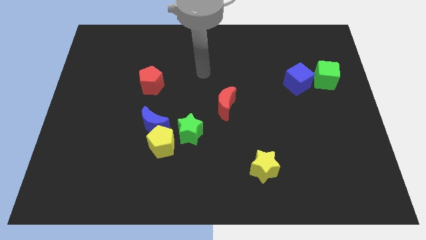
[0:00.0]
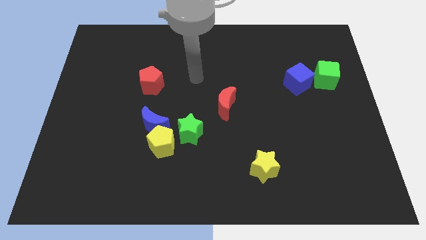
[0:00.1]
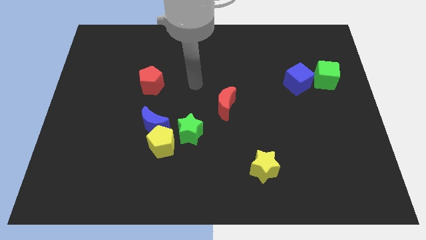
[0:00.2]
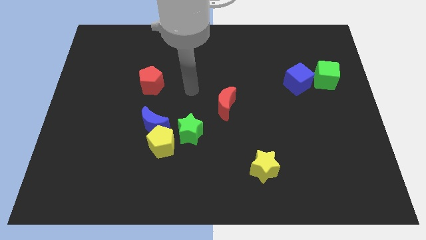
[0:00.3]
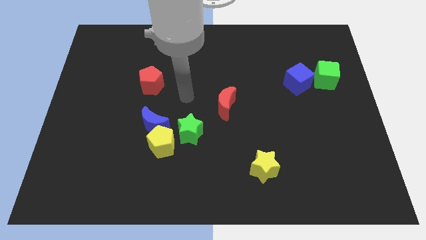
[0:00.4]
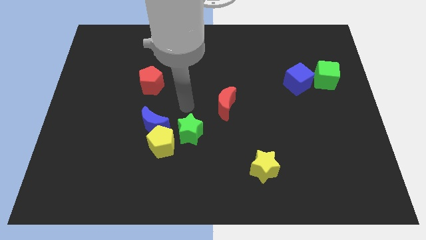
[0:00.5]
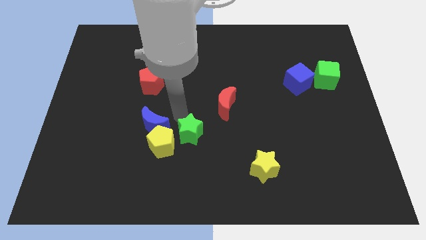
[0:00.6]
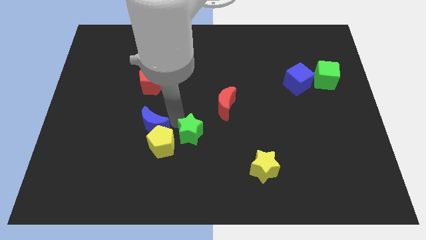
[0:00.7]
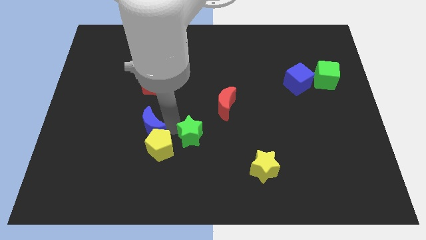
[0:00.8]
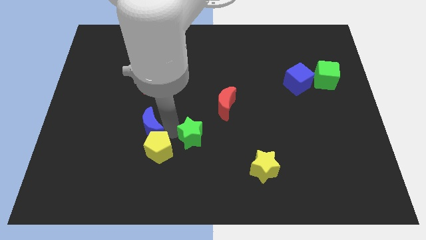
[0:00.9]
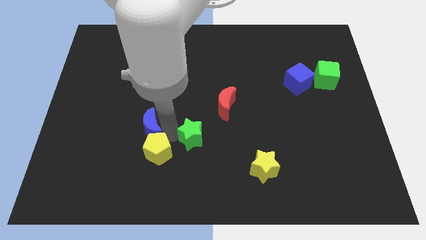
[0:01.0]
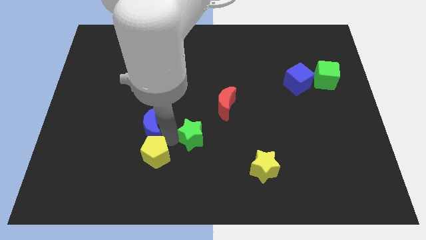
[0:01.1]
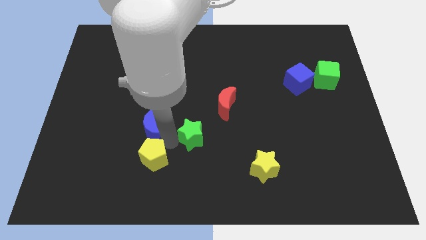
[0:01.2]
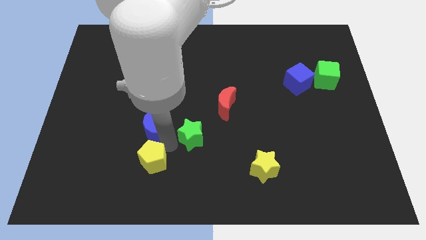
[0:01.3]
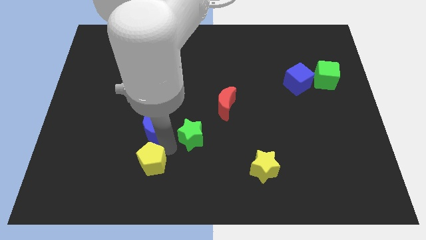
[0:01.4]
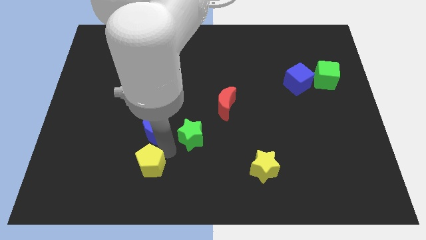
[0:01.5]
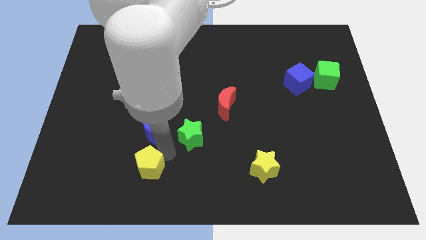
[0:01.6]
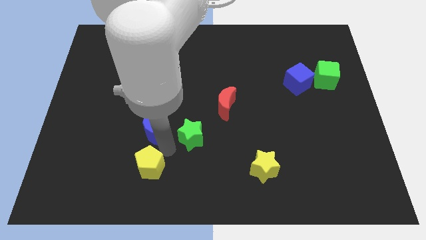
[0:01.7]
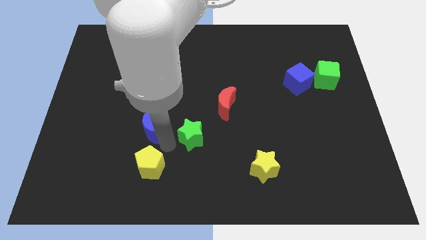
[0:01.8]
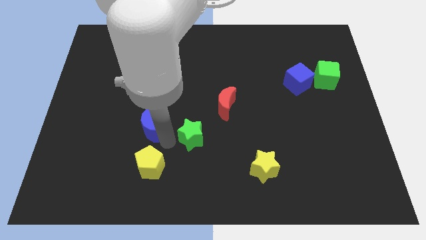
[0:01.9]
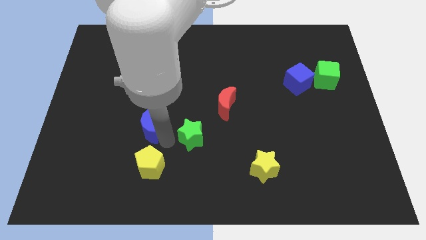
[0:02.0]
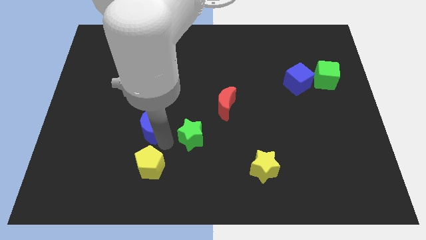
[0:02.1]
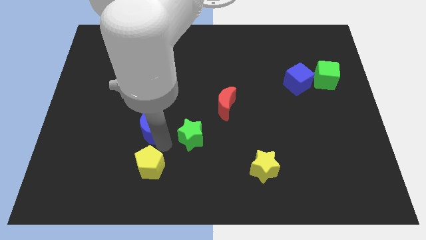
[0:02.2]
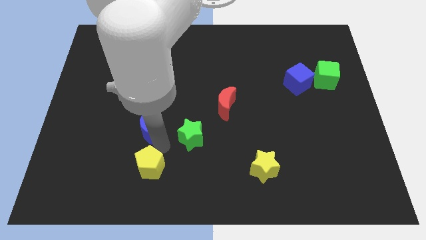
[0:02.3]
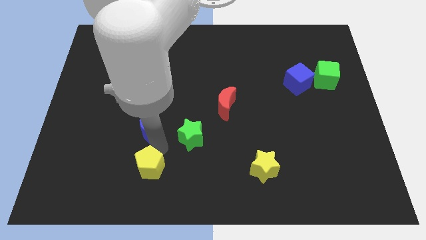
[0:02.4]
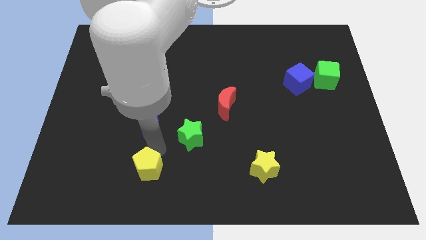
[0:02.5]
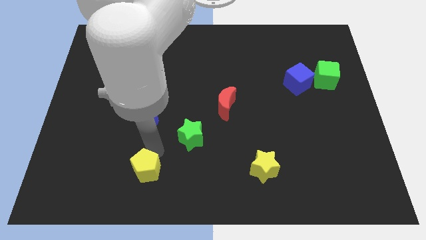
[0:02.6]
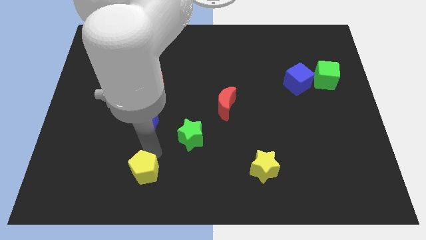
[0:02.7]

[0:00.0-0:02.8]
move the yellow pentagon away from the blue moon and green star

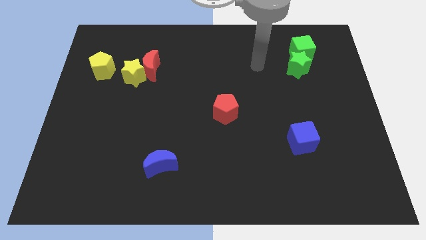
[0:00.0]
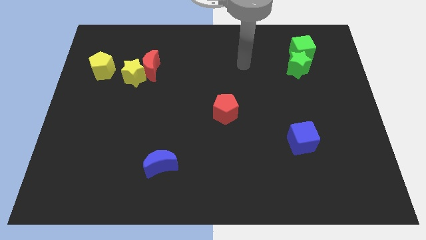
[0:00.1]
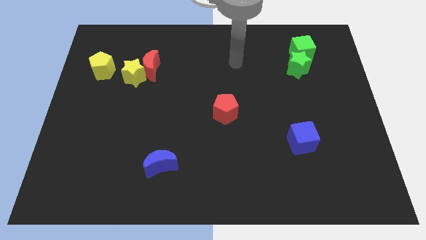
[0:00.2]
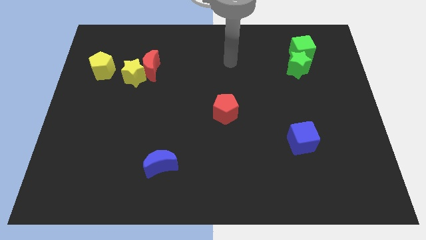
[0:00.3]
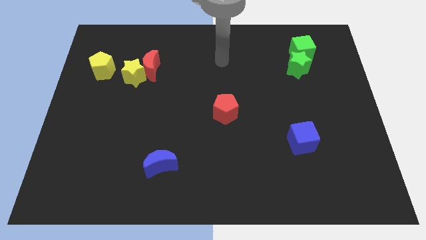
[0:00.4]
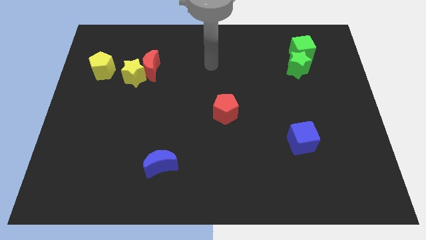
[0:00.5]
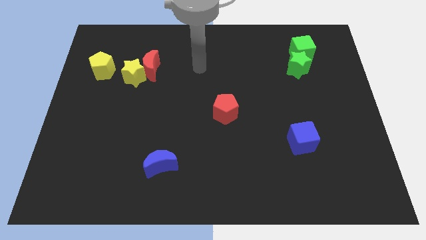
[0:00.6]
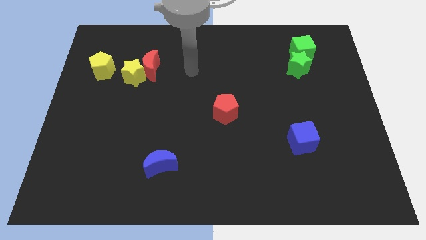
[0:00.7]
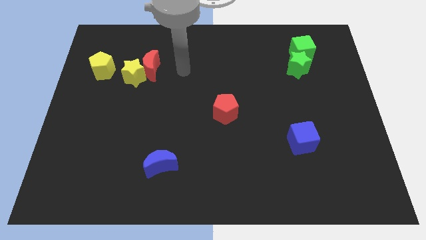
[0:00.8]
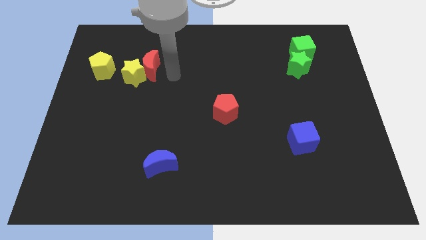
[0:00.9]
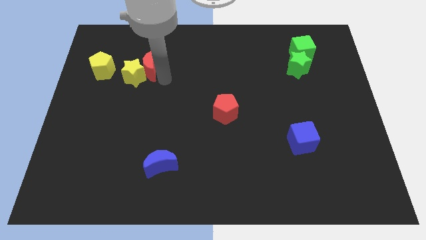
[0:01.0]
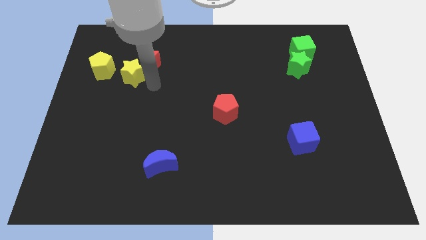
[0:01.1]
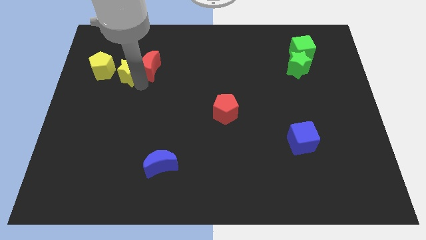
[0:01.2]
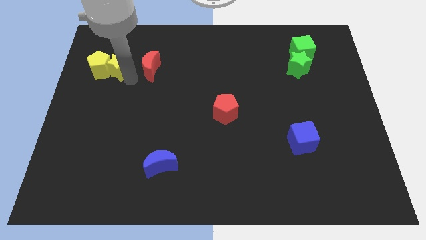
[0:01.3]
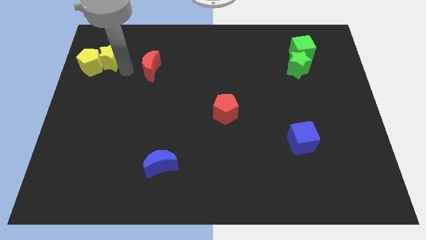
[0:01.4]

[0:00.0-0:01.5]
move the red moon away from the yellow star

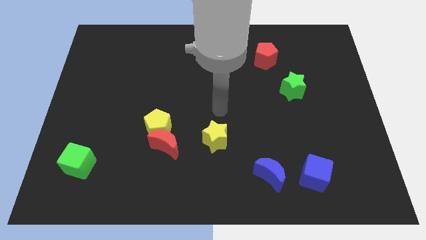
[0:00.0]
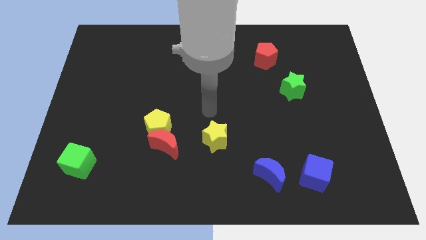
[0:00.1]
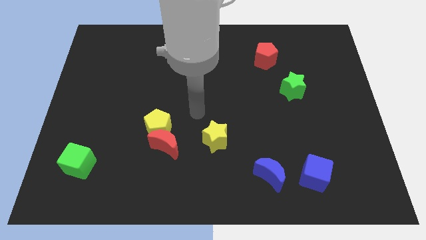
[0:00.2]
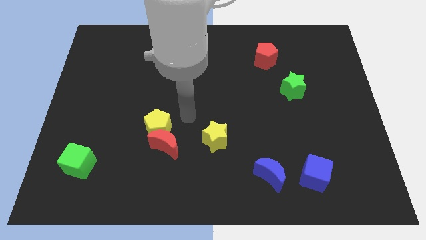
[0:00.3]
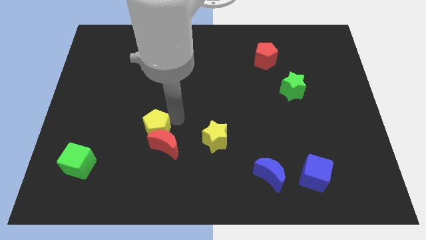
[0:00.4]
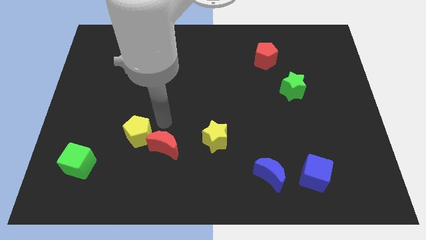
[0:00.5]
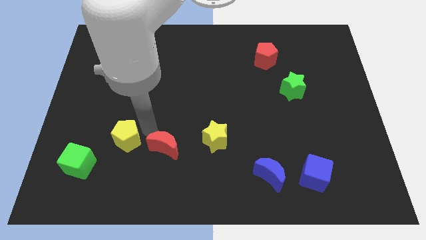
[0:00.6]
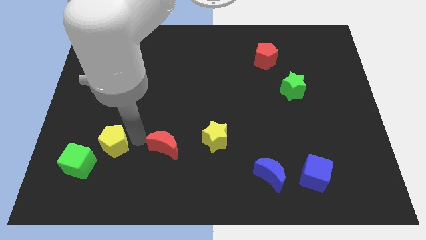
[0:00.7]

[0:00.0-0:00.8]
pull the red moon apart from the yellow pentagon

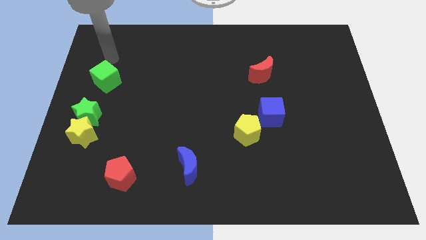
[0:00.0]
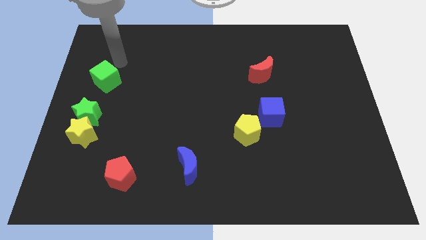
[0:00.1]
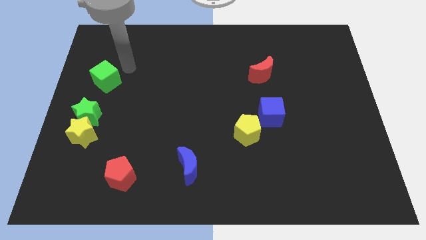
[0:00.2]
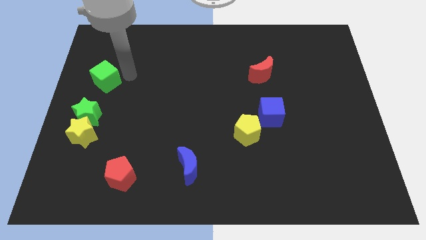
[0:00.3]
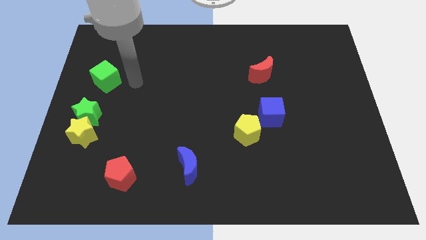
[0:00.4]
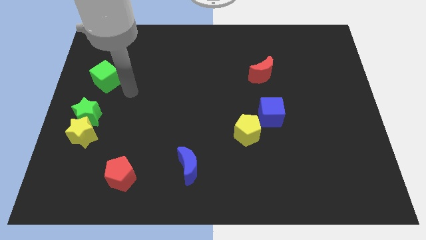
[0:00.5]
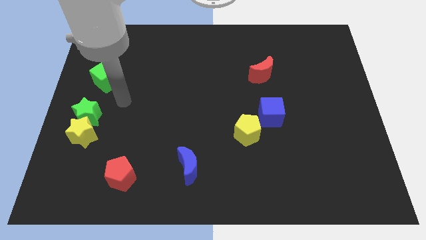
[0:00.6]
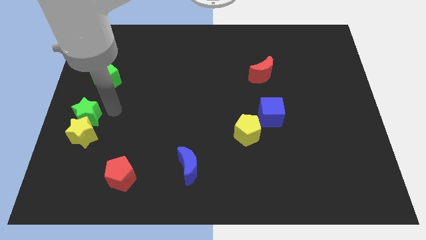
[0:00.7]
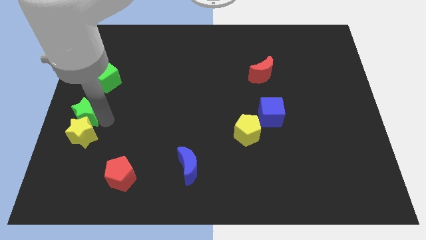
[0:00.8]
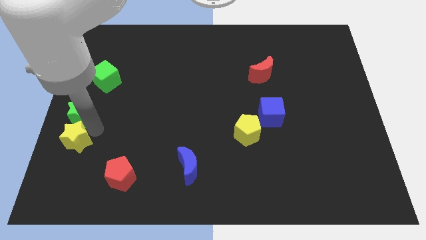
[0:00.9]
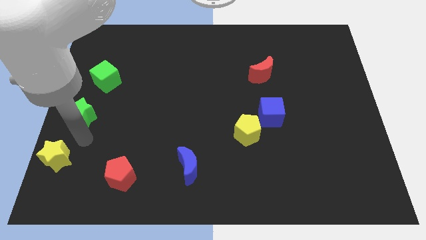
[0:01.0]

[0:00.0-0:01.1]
pull the green star apart from the yellow star

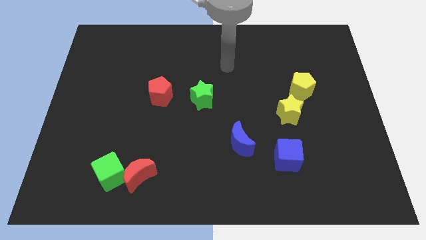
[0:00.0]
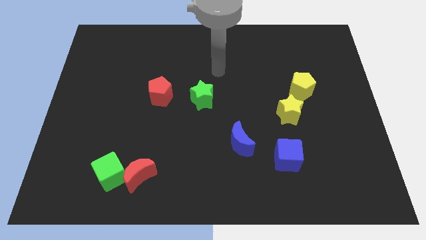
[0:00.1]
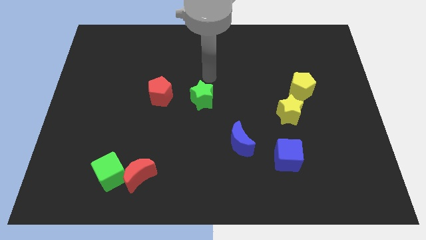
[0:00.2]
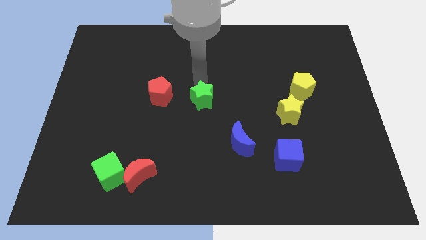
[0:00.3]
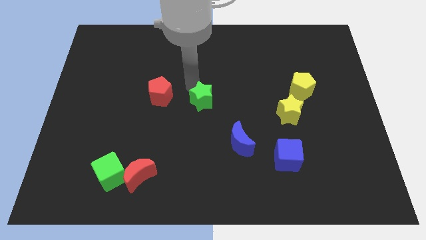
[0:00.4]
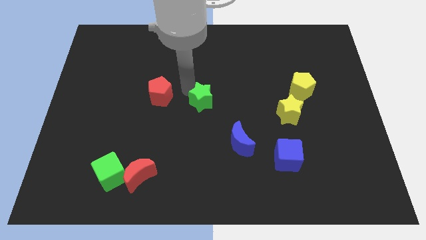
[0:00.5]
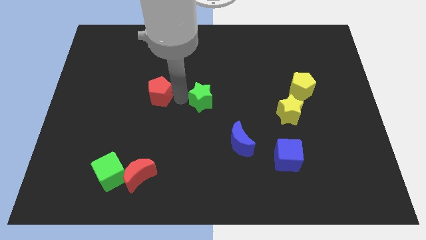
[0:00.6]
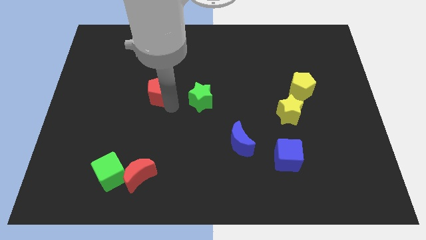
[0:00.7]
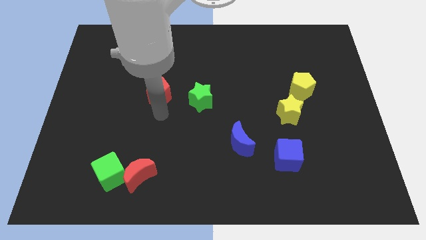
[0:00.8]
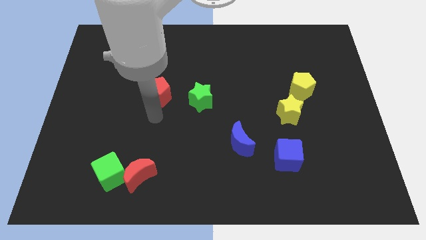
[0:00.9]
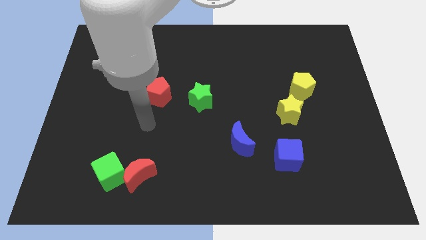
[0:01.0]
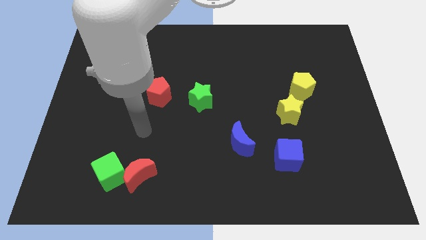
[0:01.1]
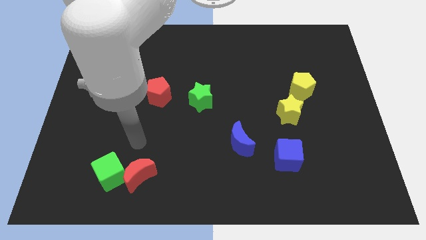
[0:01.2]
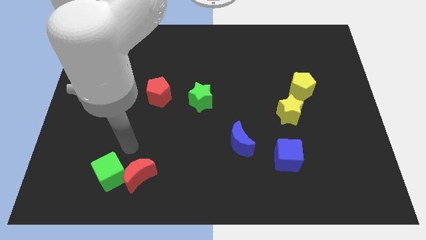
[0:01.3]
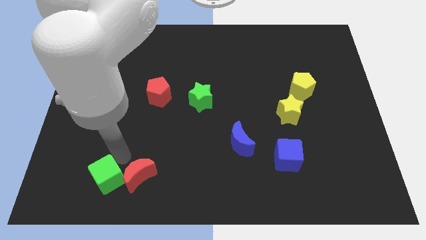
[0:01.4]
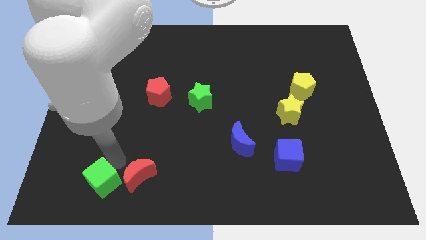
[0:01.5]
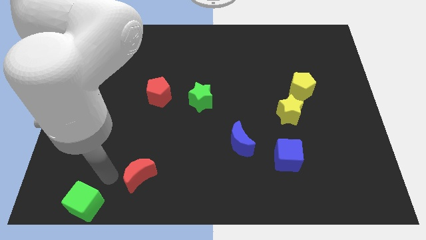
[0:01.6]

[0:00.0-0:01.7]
move the red moon away from the green cube

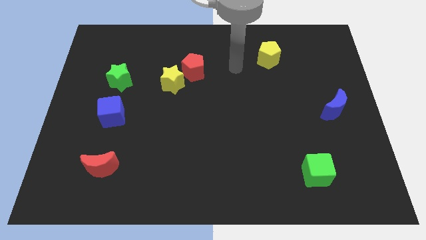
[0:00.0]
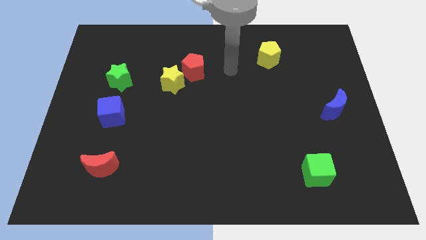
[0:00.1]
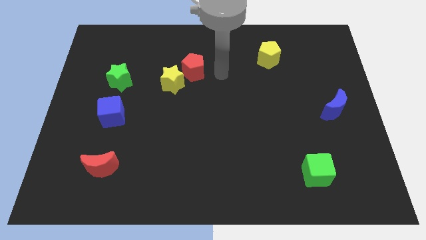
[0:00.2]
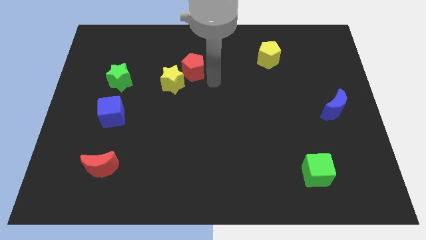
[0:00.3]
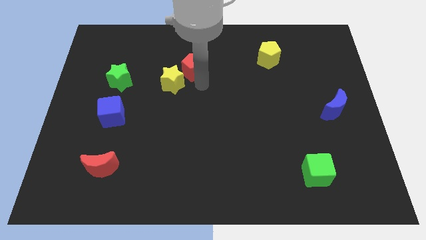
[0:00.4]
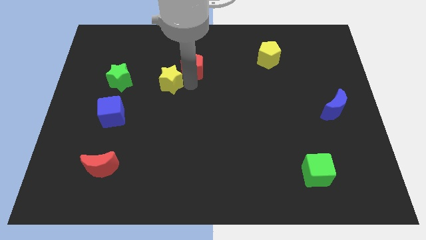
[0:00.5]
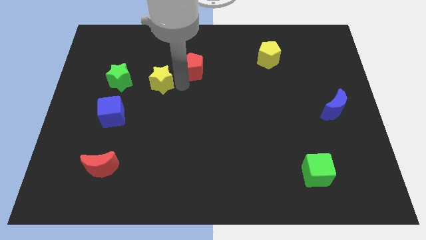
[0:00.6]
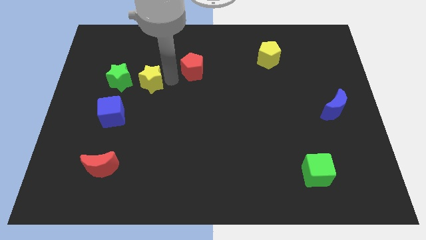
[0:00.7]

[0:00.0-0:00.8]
separate the red pentagon from the yellow star

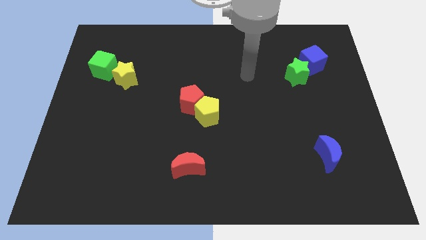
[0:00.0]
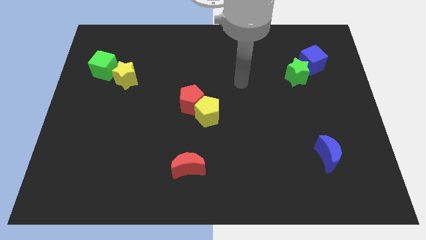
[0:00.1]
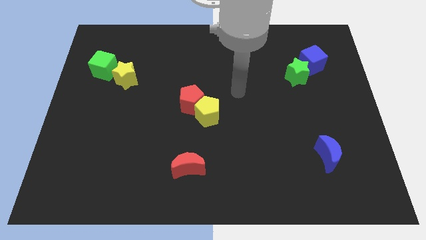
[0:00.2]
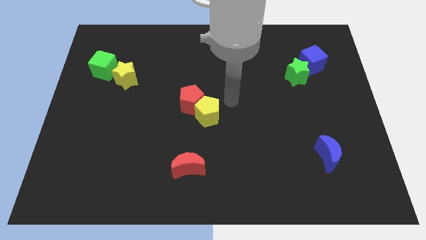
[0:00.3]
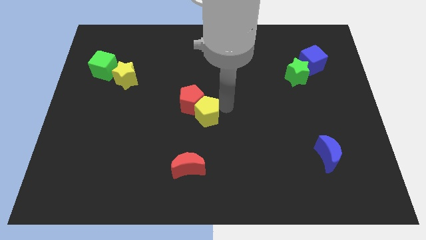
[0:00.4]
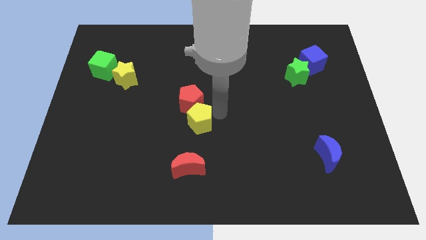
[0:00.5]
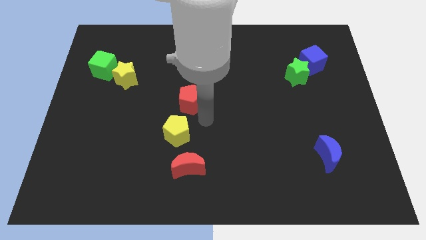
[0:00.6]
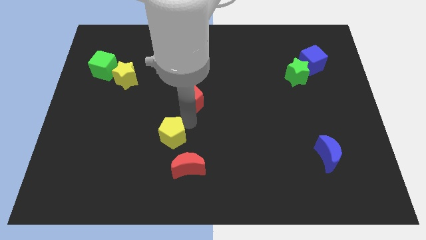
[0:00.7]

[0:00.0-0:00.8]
move the red pentagon away from the yellow pentagon
